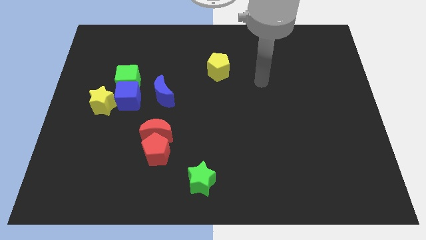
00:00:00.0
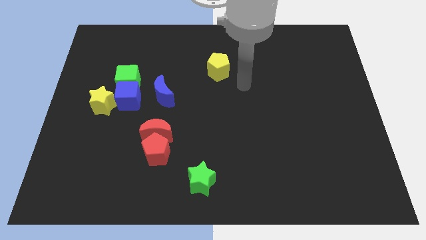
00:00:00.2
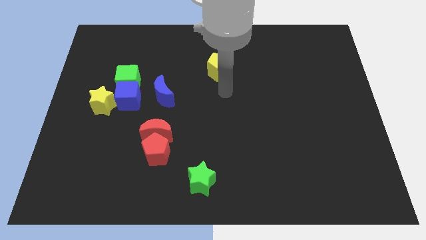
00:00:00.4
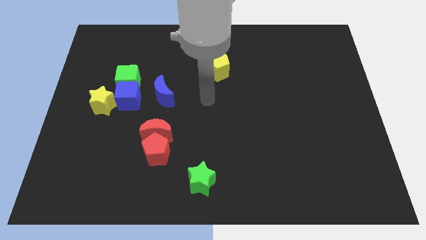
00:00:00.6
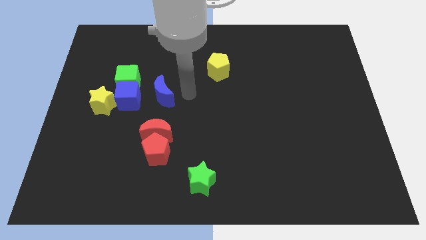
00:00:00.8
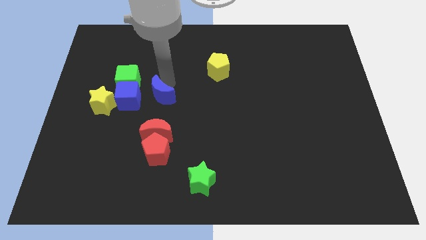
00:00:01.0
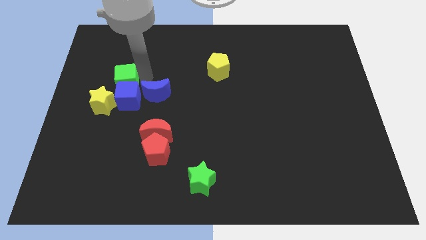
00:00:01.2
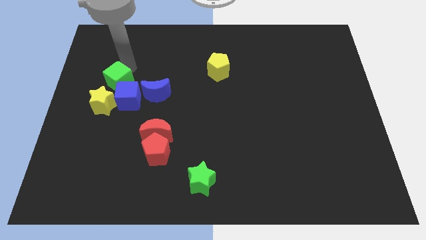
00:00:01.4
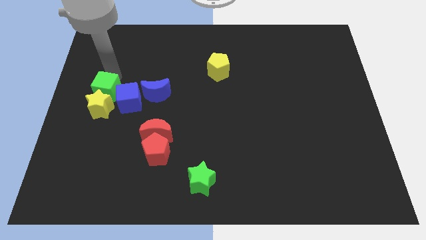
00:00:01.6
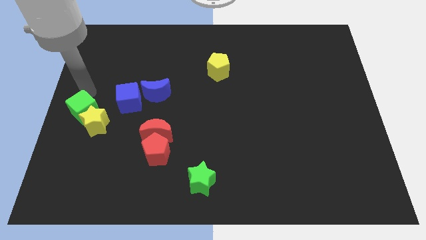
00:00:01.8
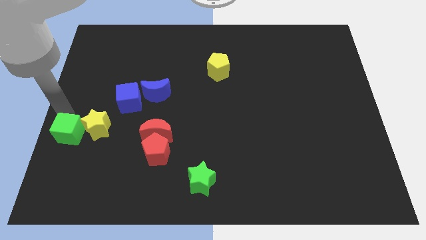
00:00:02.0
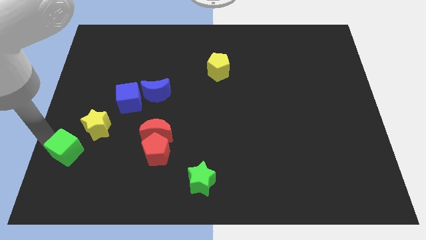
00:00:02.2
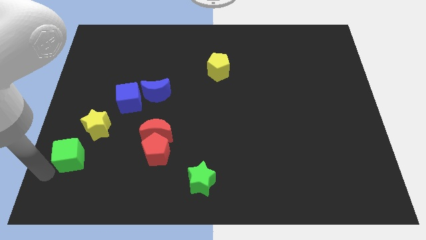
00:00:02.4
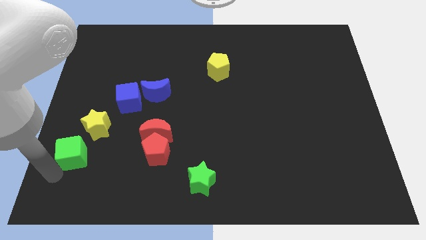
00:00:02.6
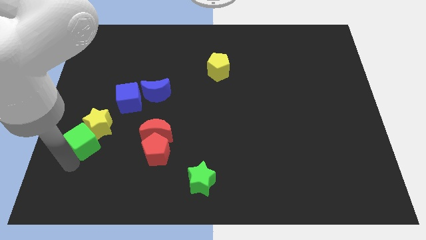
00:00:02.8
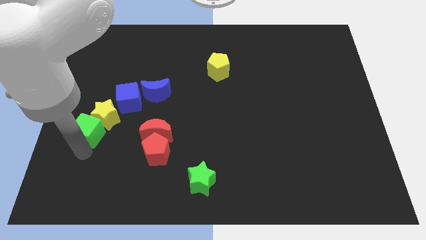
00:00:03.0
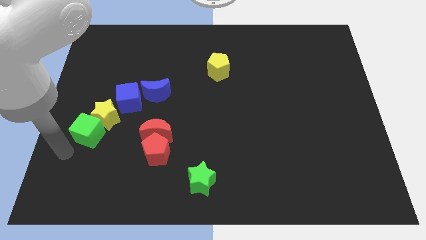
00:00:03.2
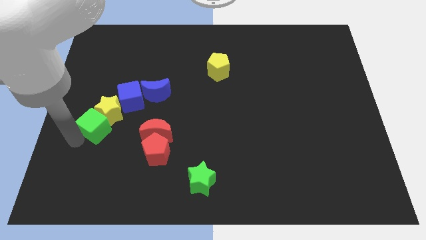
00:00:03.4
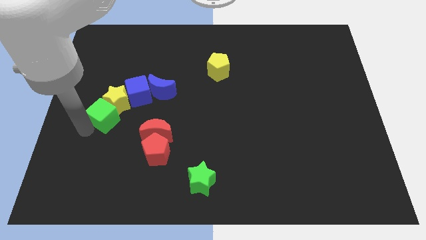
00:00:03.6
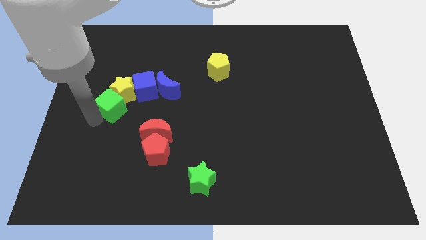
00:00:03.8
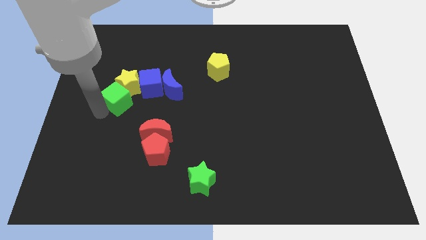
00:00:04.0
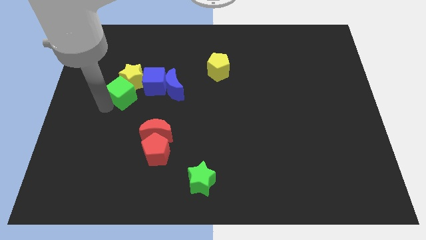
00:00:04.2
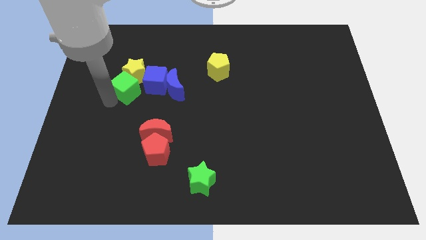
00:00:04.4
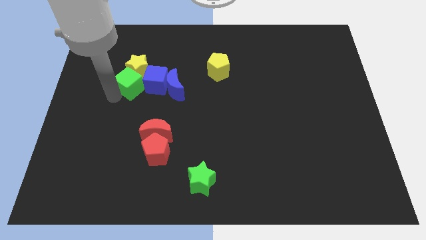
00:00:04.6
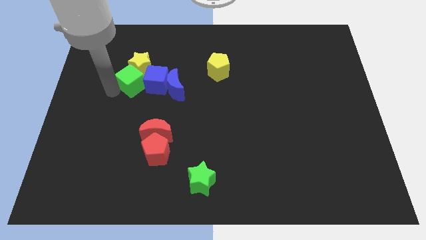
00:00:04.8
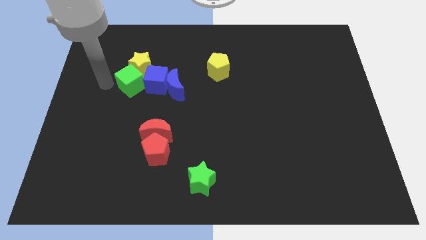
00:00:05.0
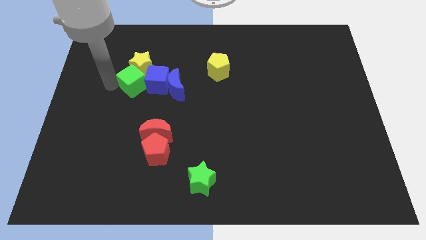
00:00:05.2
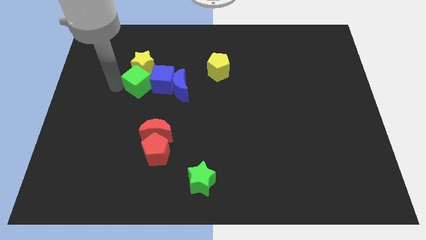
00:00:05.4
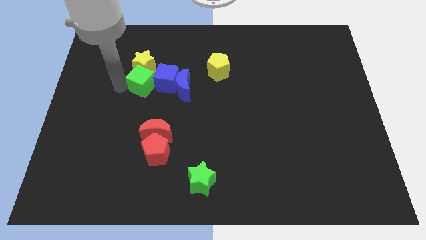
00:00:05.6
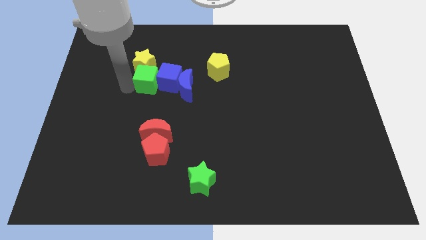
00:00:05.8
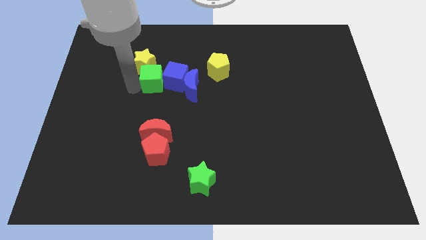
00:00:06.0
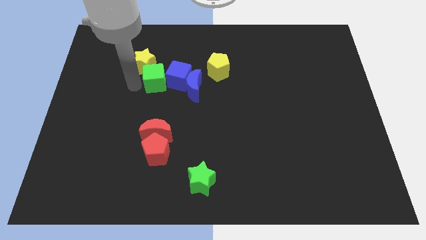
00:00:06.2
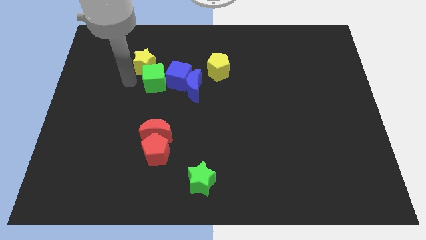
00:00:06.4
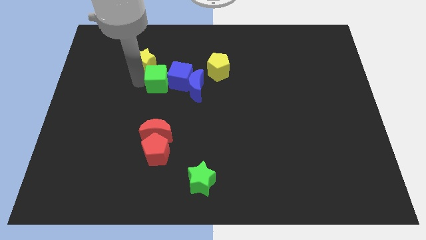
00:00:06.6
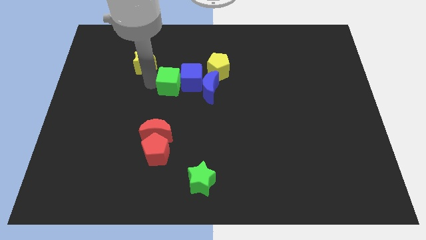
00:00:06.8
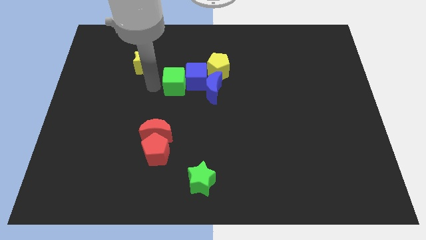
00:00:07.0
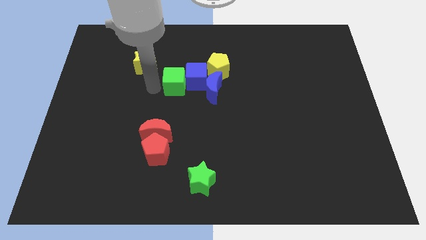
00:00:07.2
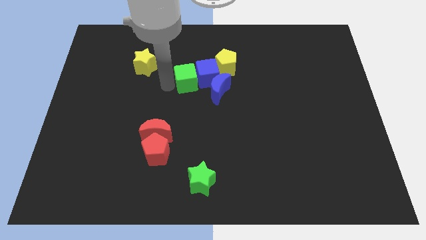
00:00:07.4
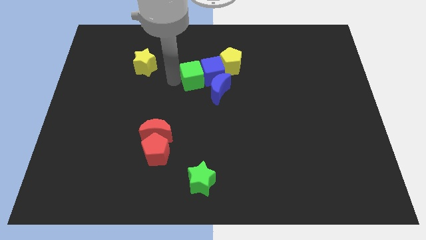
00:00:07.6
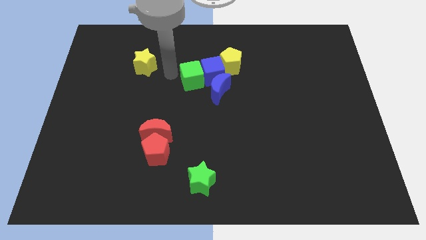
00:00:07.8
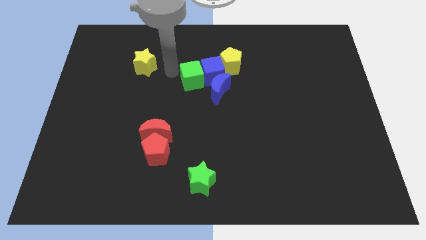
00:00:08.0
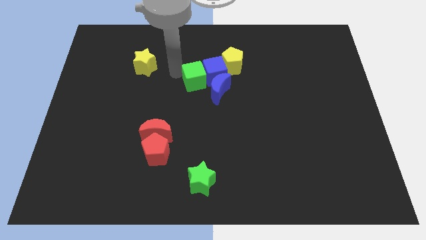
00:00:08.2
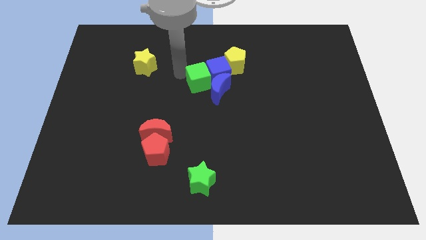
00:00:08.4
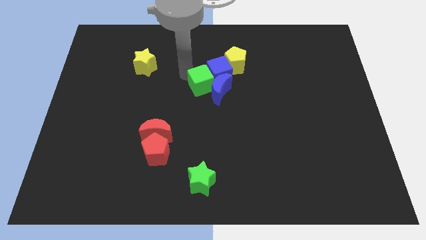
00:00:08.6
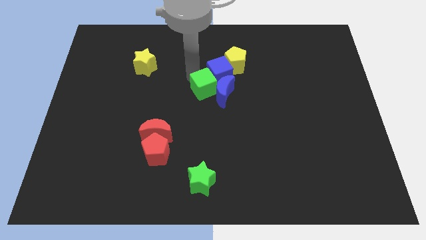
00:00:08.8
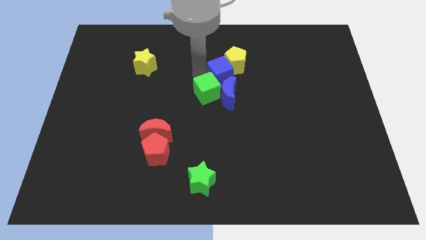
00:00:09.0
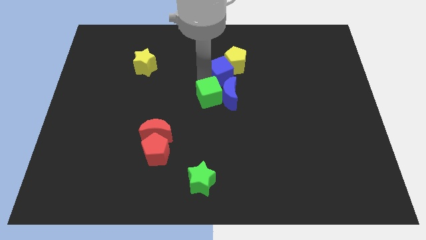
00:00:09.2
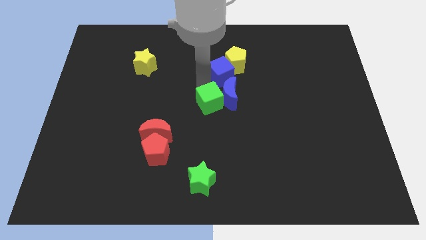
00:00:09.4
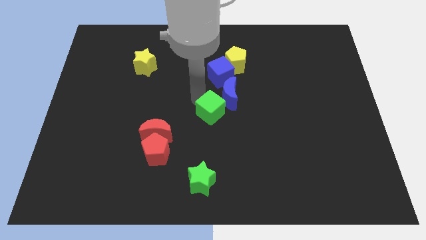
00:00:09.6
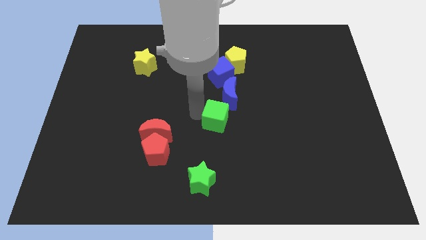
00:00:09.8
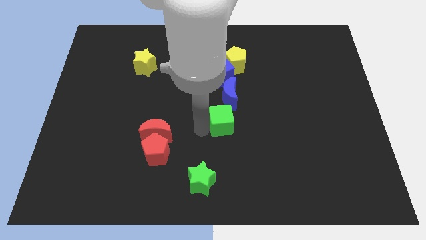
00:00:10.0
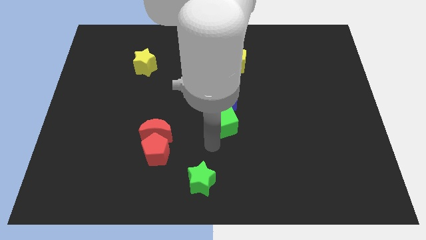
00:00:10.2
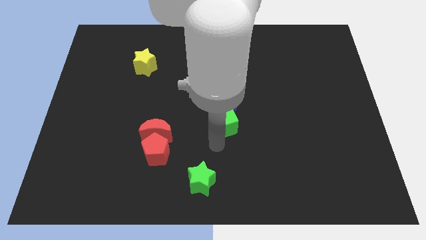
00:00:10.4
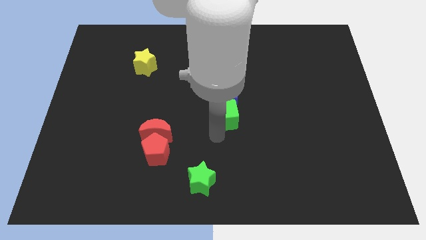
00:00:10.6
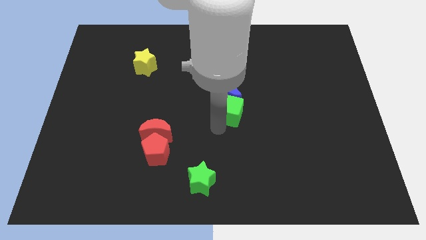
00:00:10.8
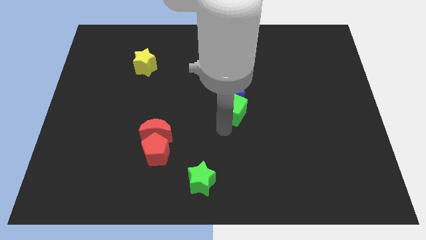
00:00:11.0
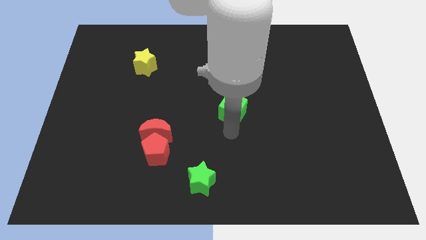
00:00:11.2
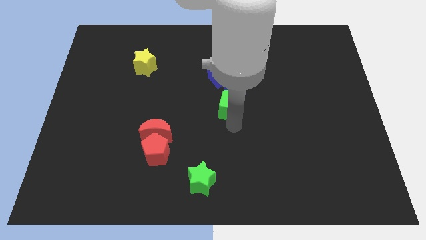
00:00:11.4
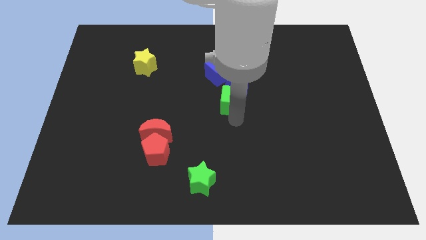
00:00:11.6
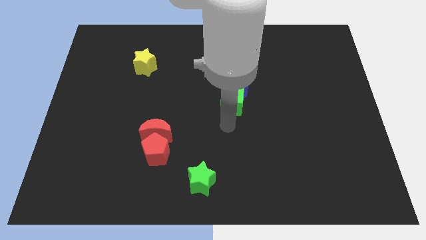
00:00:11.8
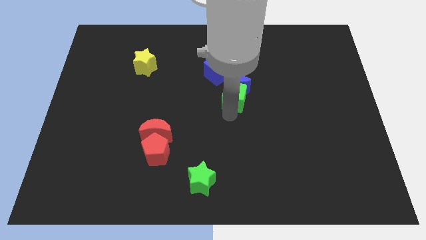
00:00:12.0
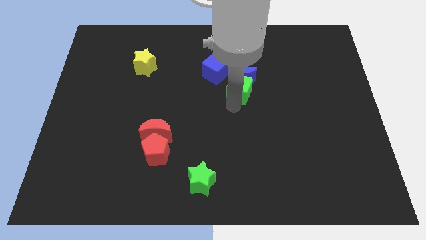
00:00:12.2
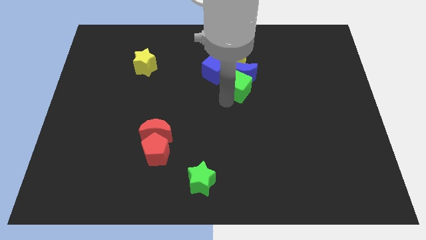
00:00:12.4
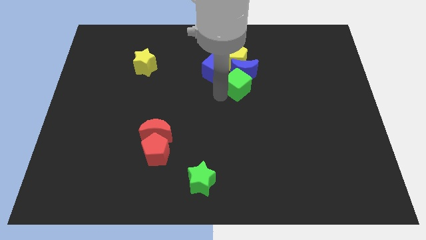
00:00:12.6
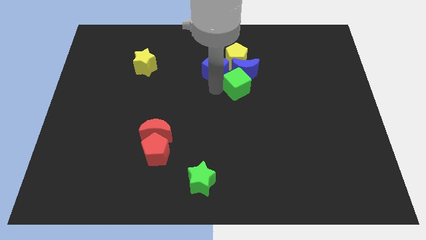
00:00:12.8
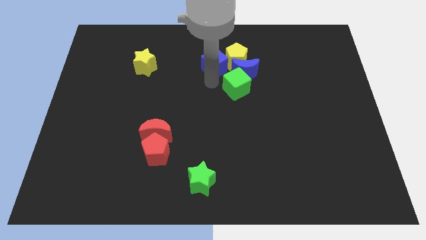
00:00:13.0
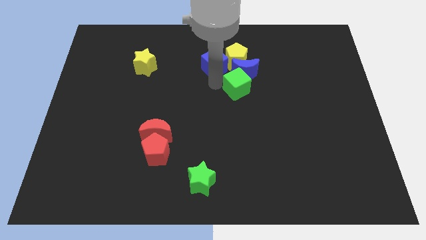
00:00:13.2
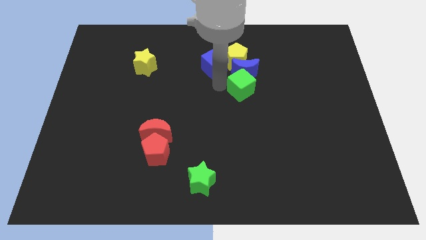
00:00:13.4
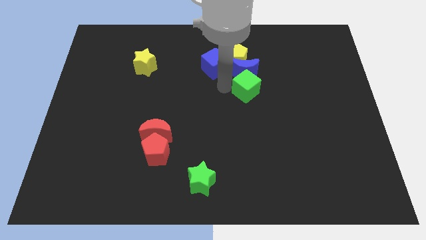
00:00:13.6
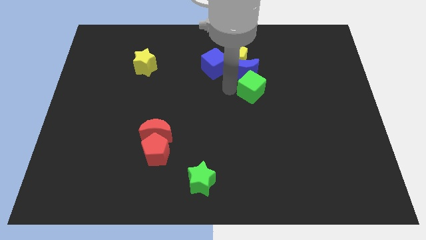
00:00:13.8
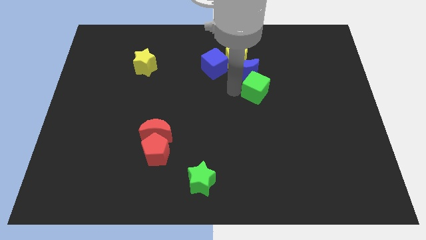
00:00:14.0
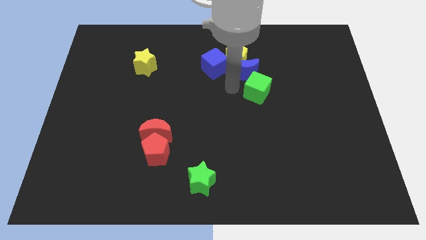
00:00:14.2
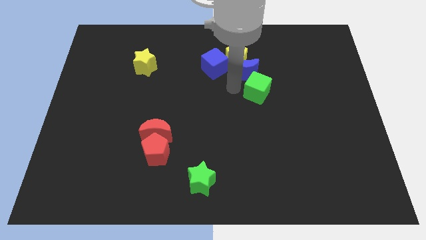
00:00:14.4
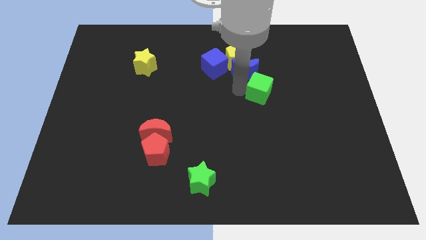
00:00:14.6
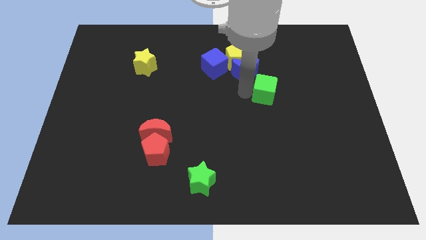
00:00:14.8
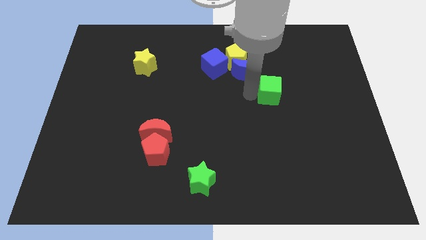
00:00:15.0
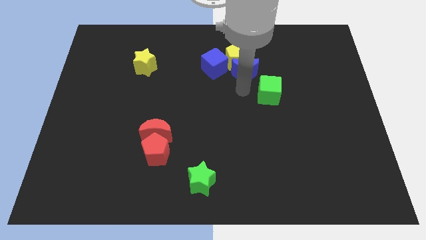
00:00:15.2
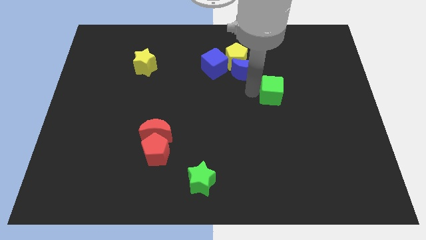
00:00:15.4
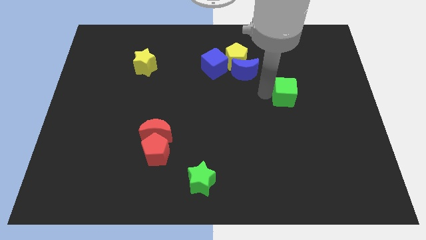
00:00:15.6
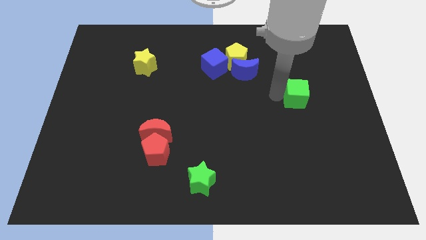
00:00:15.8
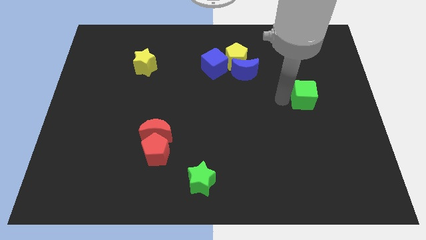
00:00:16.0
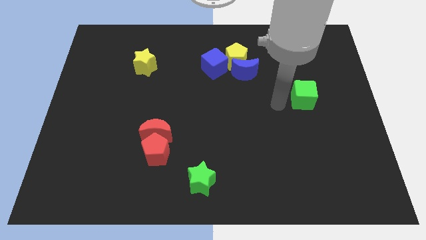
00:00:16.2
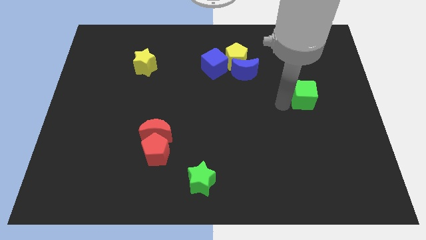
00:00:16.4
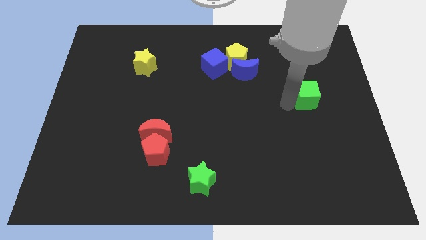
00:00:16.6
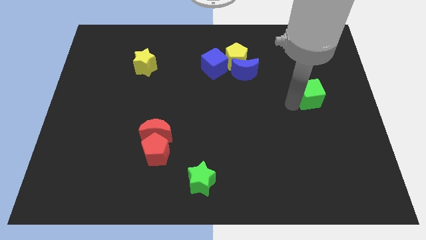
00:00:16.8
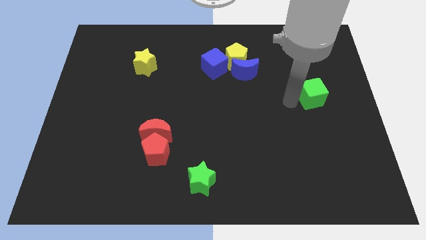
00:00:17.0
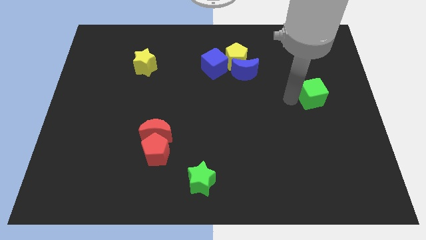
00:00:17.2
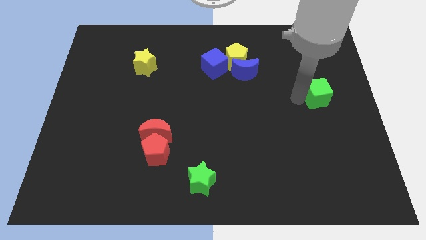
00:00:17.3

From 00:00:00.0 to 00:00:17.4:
push the green cube to the center right
